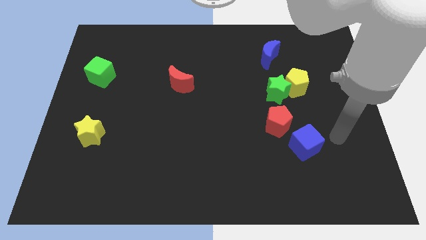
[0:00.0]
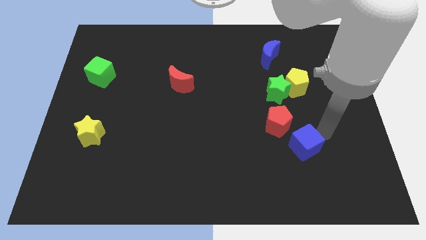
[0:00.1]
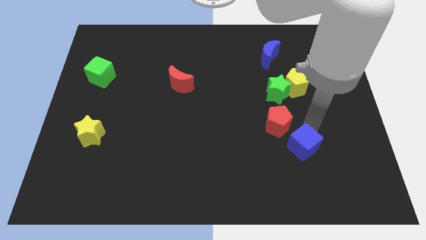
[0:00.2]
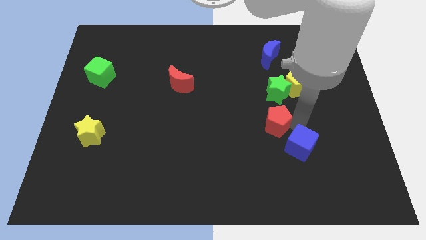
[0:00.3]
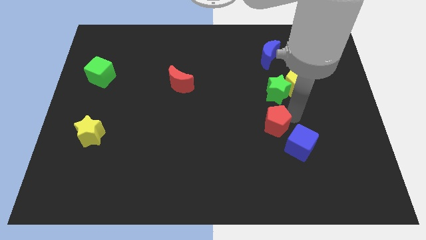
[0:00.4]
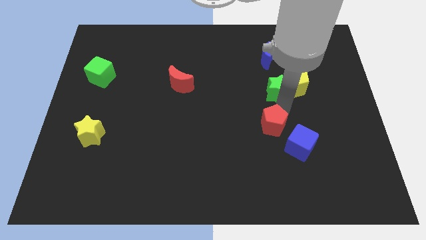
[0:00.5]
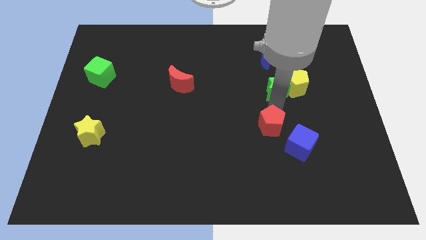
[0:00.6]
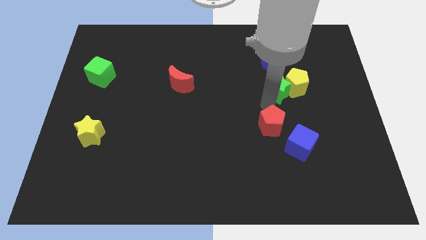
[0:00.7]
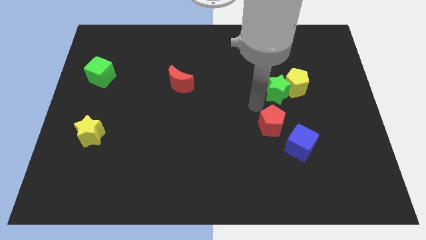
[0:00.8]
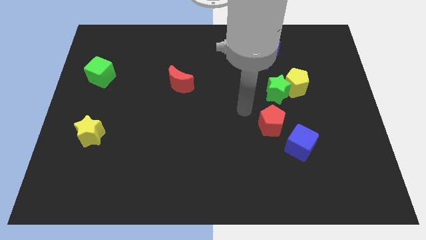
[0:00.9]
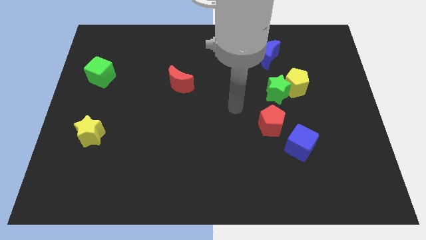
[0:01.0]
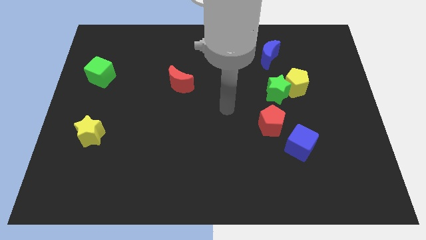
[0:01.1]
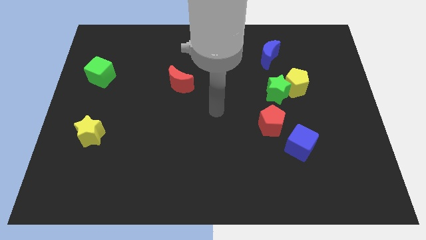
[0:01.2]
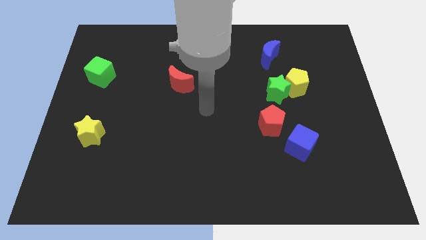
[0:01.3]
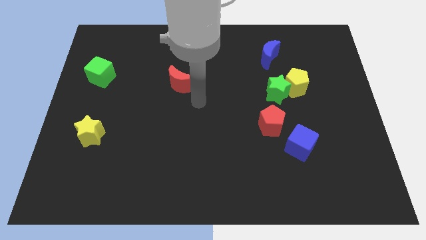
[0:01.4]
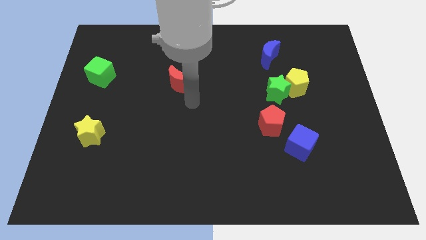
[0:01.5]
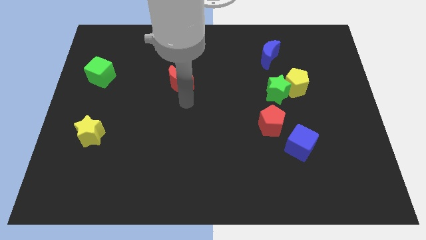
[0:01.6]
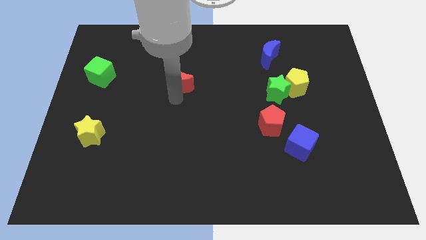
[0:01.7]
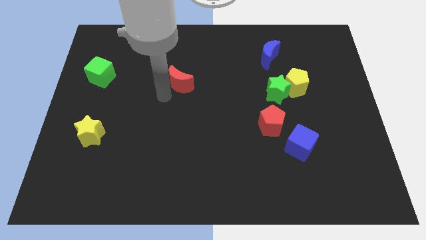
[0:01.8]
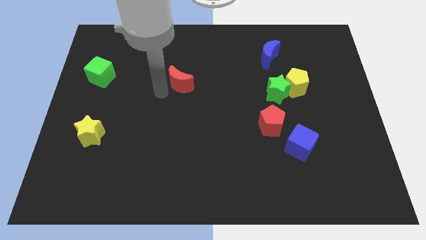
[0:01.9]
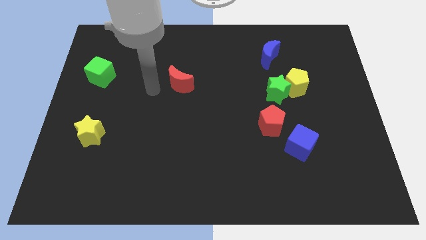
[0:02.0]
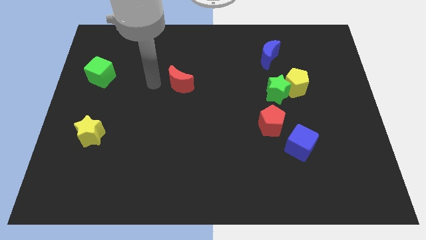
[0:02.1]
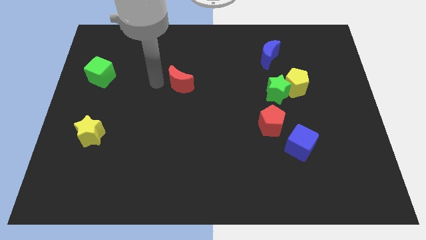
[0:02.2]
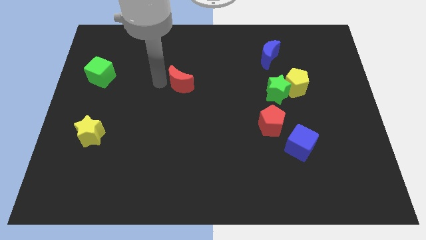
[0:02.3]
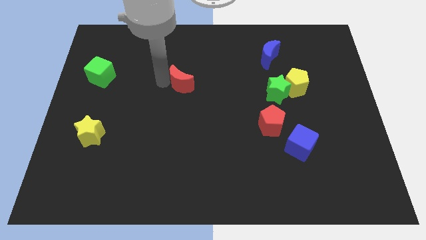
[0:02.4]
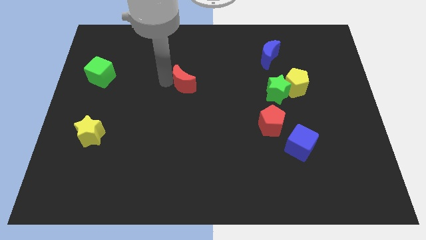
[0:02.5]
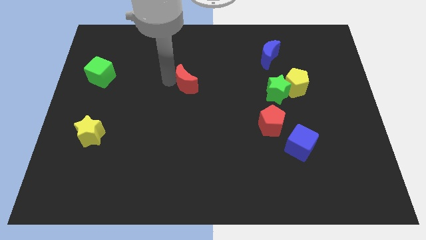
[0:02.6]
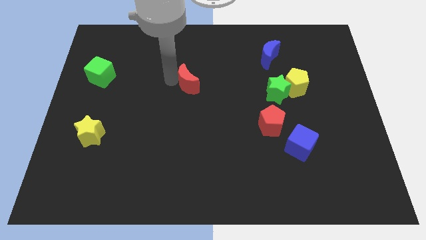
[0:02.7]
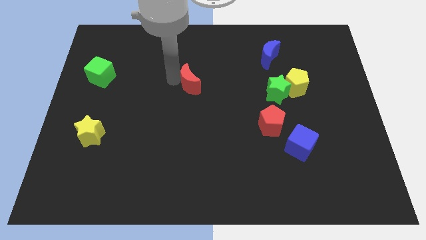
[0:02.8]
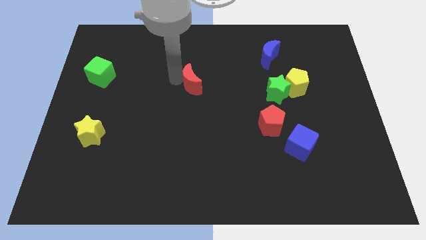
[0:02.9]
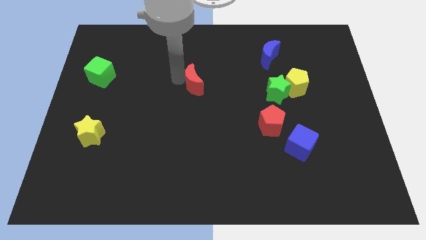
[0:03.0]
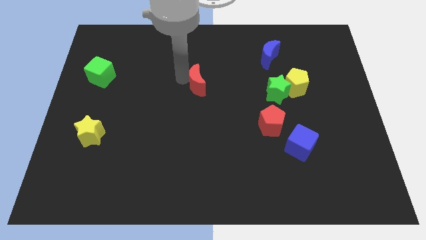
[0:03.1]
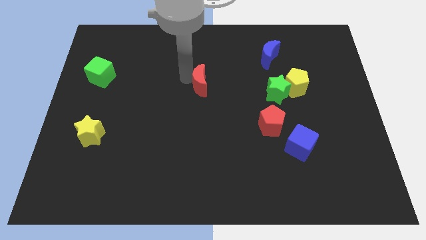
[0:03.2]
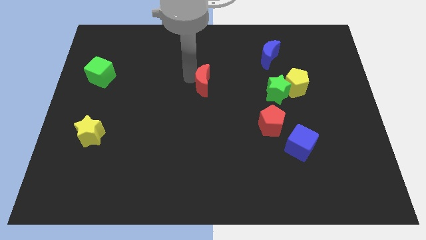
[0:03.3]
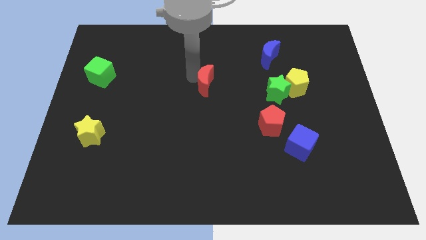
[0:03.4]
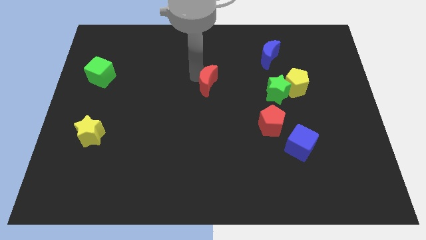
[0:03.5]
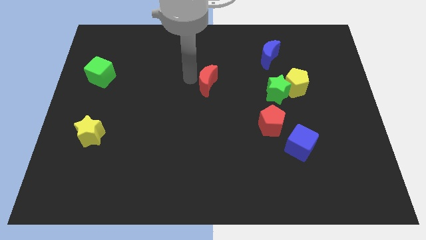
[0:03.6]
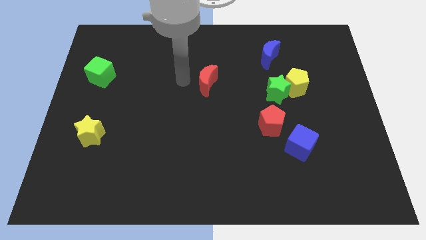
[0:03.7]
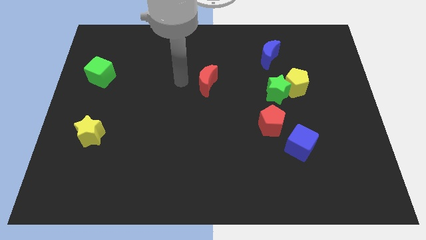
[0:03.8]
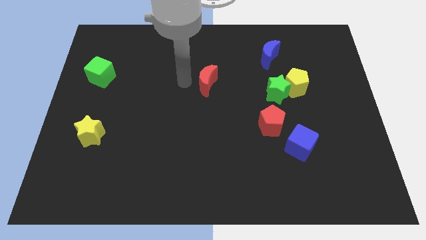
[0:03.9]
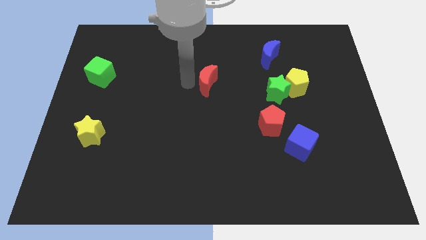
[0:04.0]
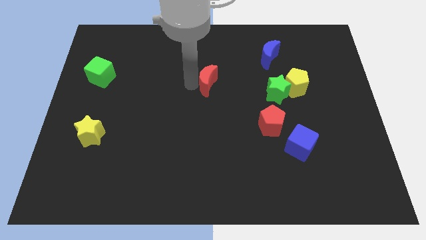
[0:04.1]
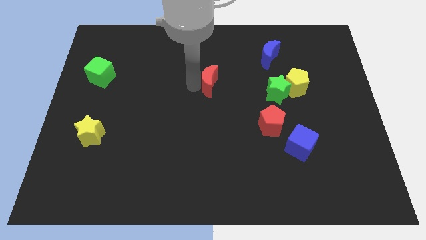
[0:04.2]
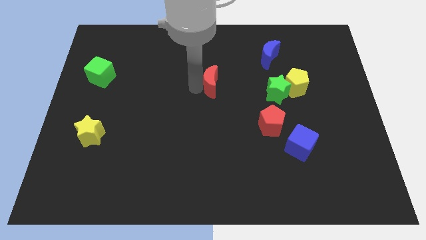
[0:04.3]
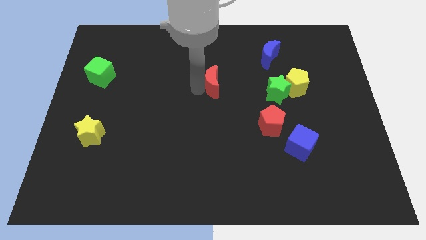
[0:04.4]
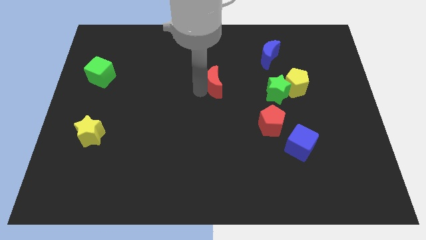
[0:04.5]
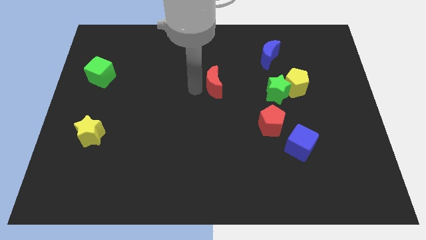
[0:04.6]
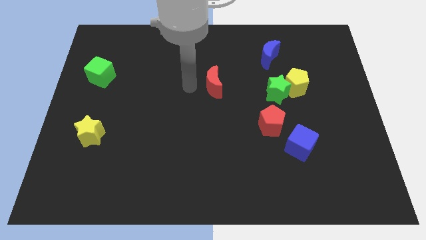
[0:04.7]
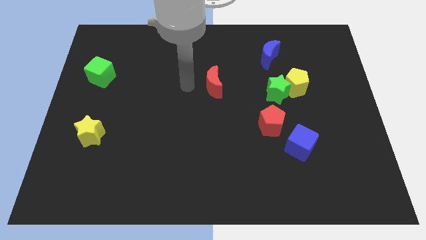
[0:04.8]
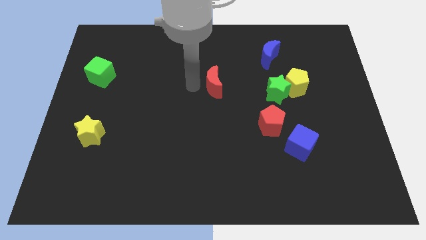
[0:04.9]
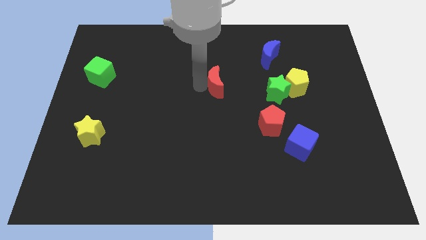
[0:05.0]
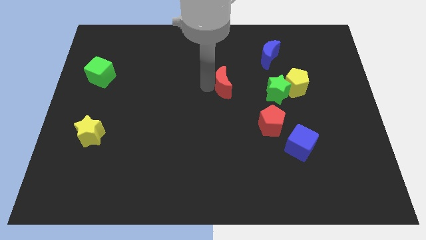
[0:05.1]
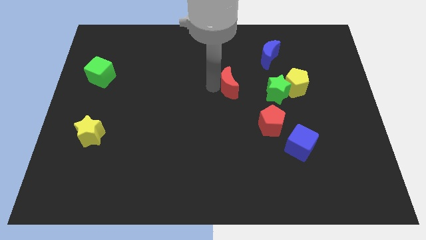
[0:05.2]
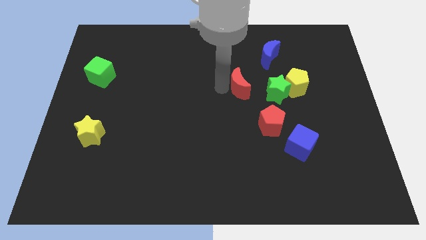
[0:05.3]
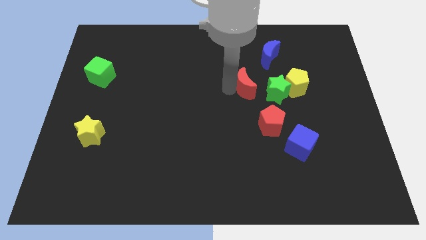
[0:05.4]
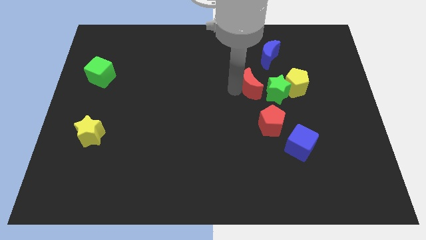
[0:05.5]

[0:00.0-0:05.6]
slide the red moon to the top of the red pentagon

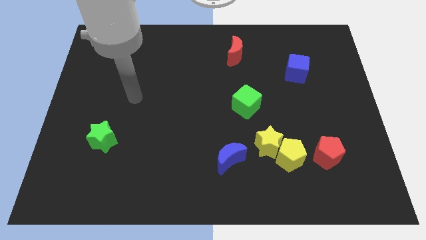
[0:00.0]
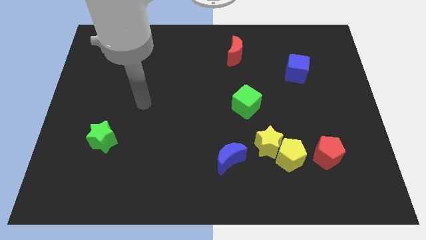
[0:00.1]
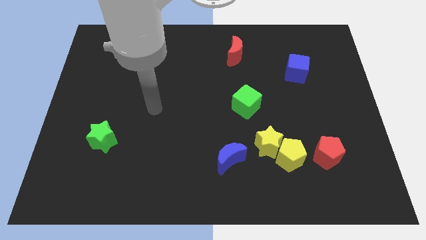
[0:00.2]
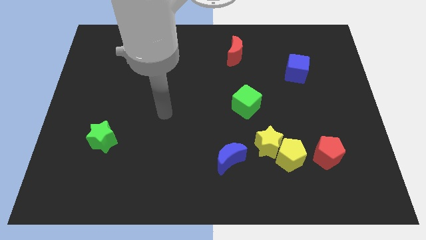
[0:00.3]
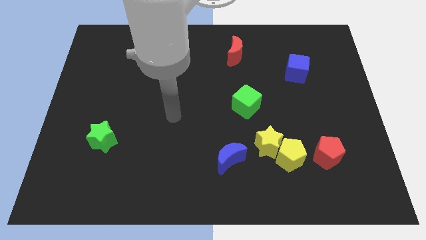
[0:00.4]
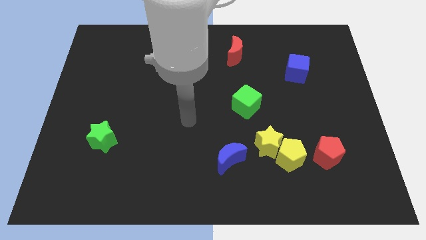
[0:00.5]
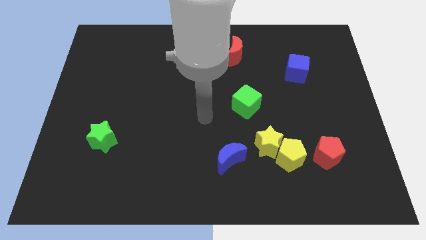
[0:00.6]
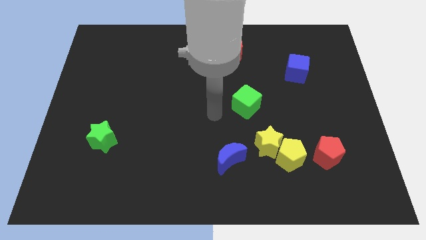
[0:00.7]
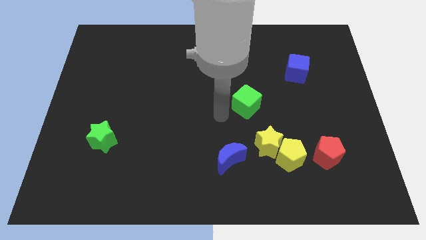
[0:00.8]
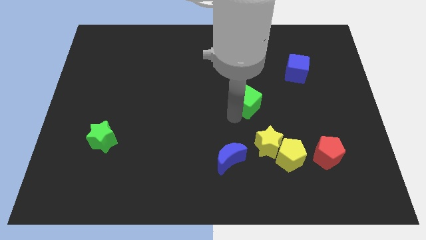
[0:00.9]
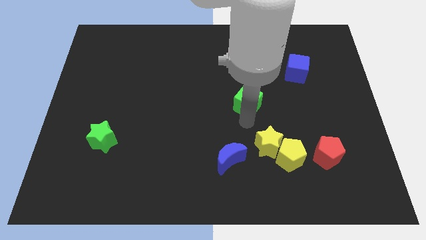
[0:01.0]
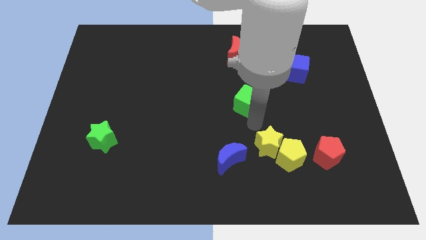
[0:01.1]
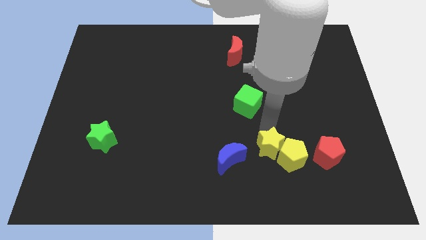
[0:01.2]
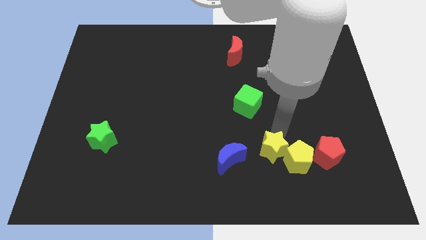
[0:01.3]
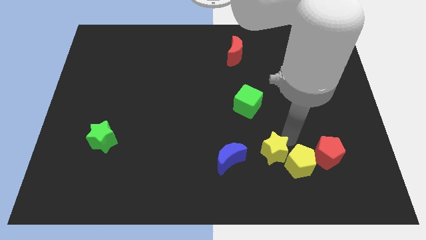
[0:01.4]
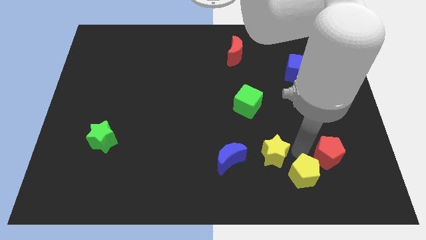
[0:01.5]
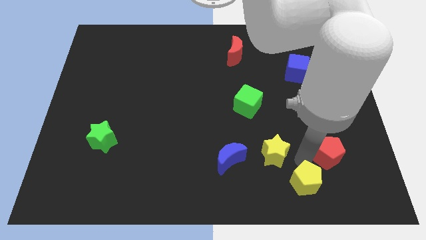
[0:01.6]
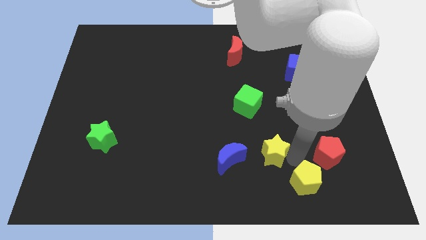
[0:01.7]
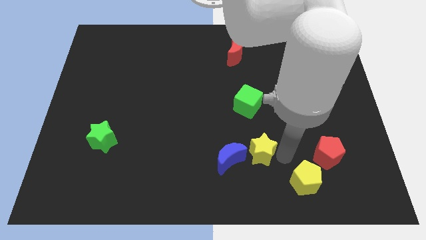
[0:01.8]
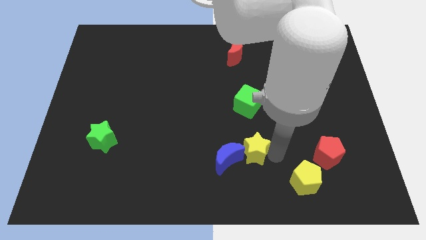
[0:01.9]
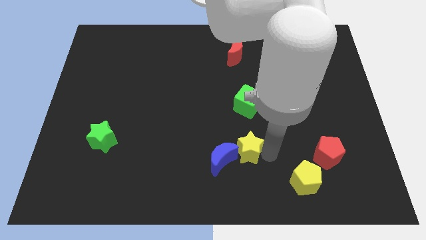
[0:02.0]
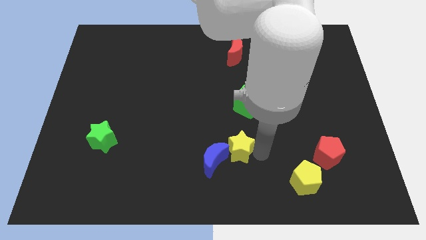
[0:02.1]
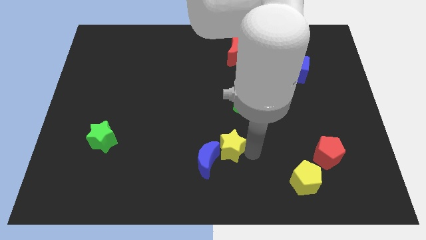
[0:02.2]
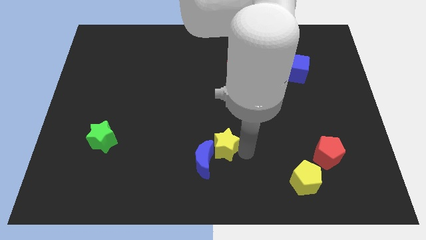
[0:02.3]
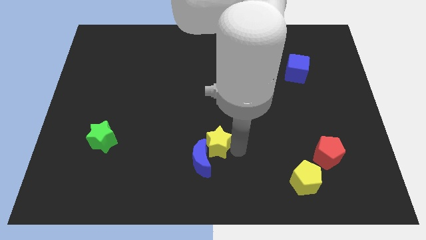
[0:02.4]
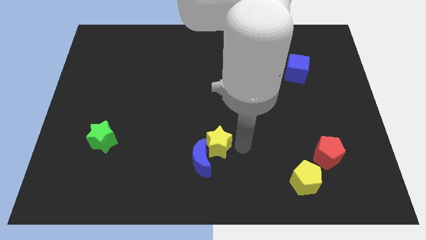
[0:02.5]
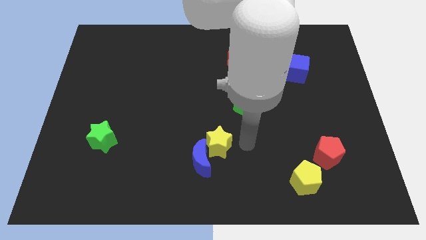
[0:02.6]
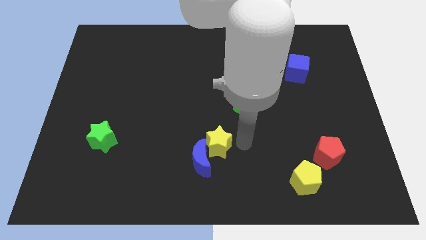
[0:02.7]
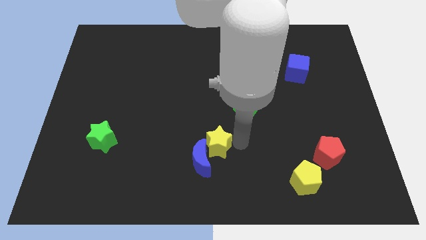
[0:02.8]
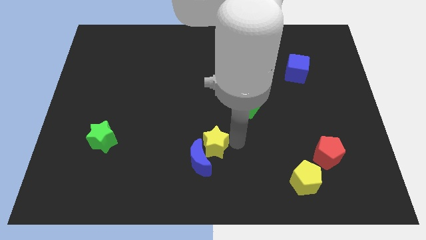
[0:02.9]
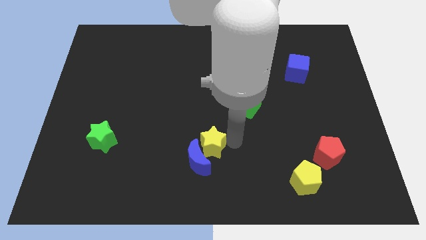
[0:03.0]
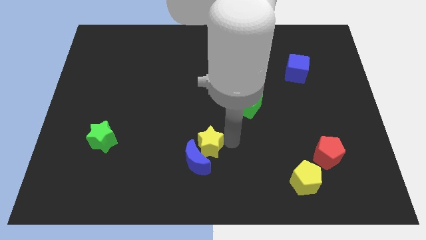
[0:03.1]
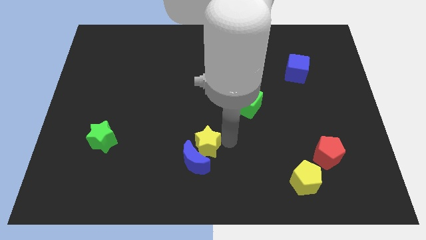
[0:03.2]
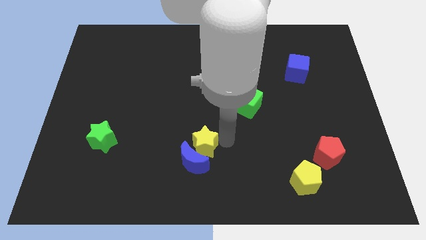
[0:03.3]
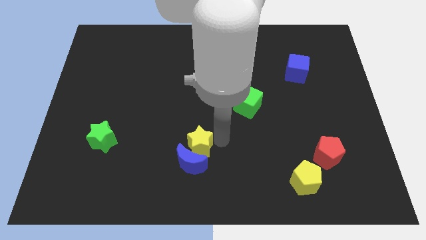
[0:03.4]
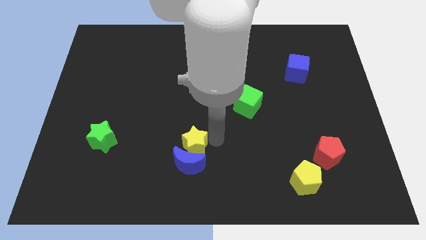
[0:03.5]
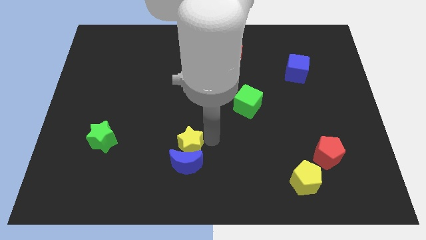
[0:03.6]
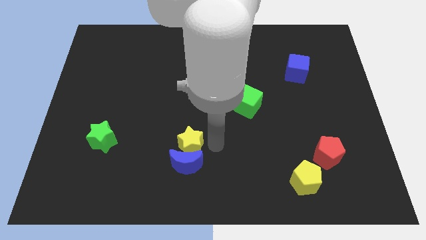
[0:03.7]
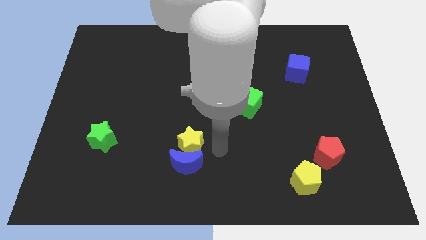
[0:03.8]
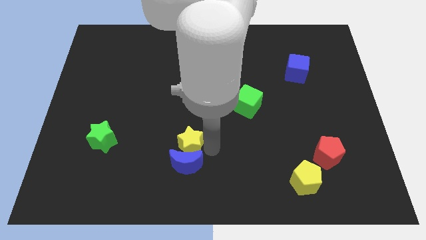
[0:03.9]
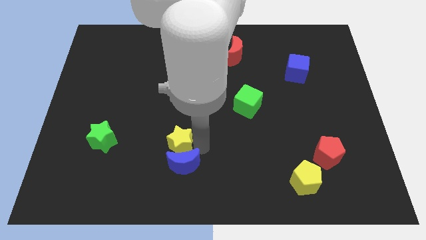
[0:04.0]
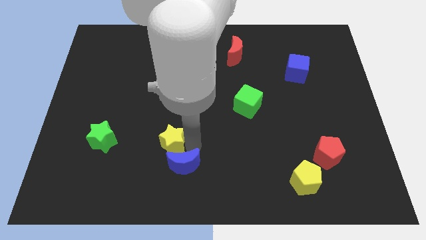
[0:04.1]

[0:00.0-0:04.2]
slide the yellow star to the right side of the green star
